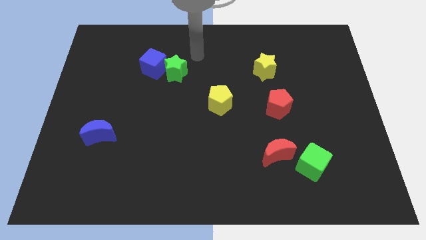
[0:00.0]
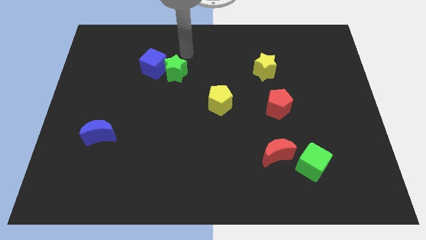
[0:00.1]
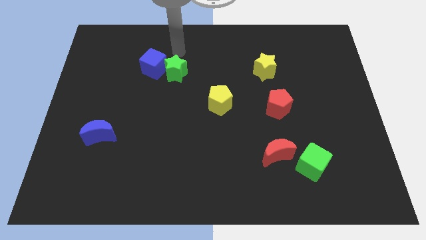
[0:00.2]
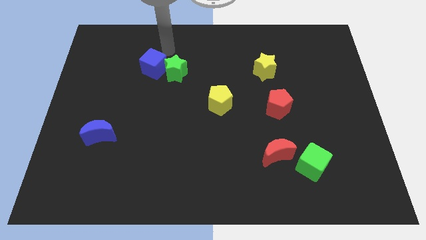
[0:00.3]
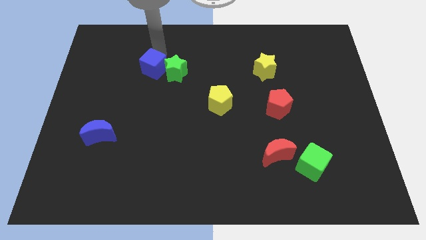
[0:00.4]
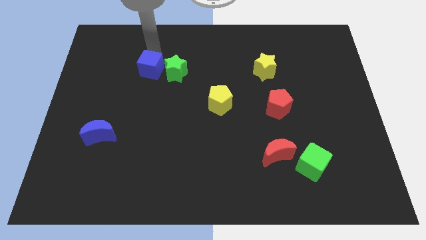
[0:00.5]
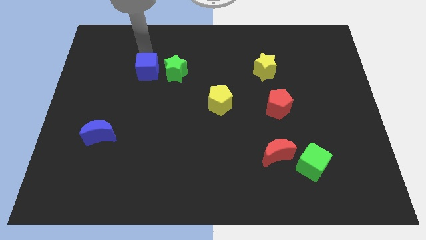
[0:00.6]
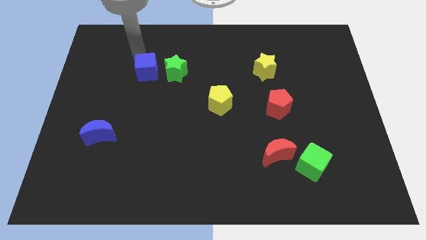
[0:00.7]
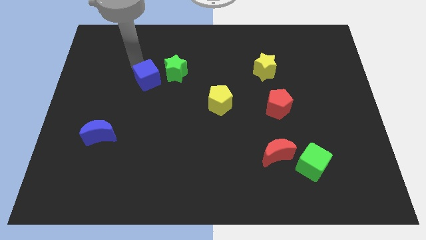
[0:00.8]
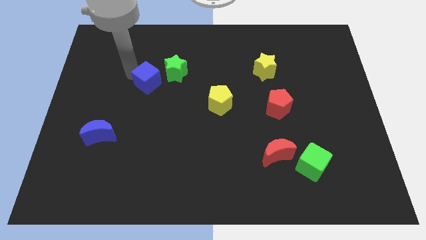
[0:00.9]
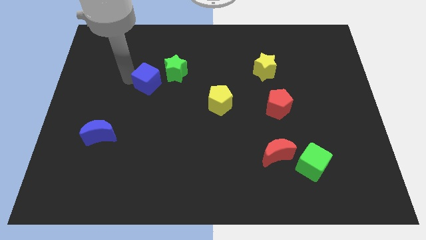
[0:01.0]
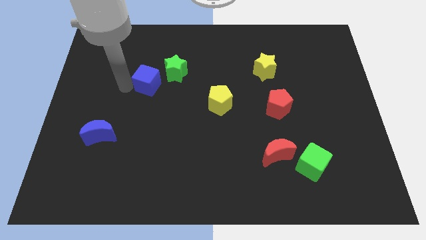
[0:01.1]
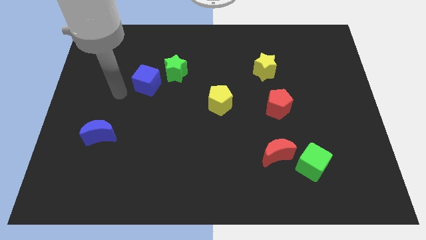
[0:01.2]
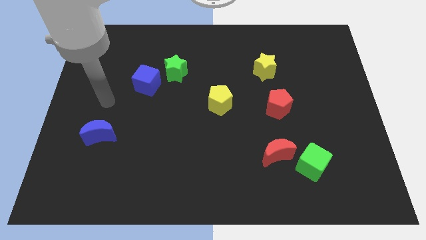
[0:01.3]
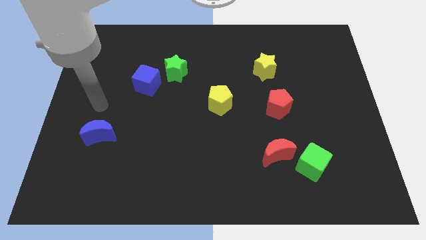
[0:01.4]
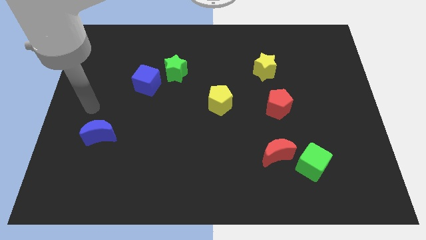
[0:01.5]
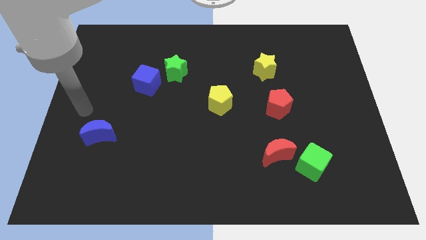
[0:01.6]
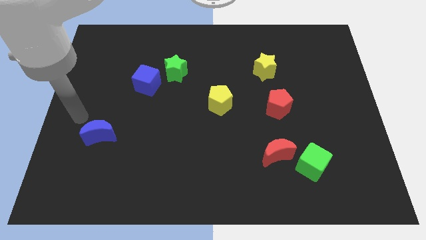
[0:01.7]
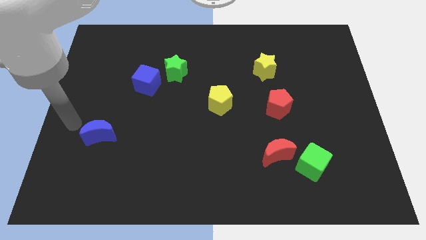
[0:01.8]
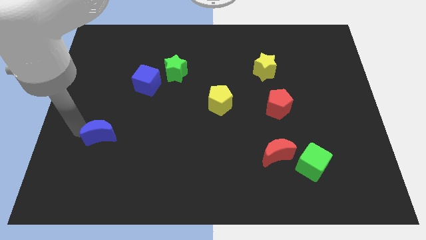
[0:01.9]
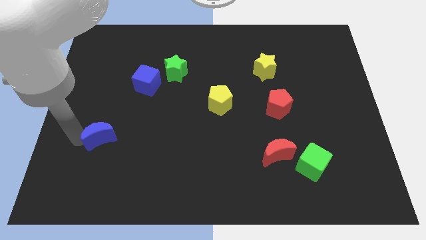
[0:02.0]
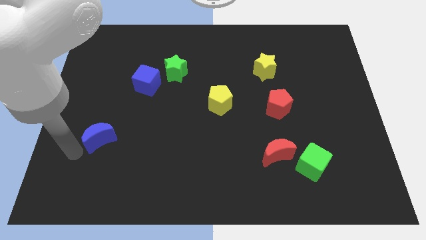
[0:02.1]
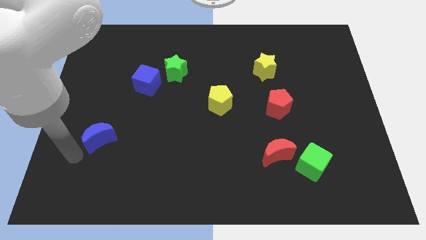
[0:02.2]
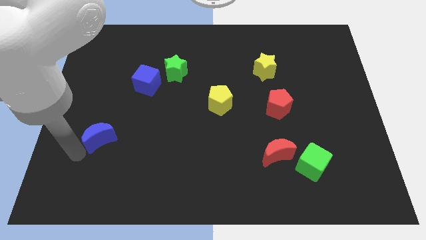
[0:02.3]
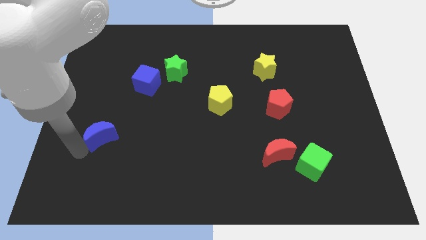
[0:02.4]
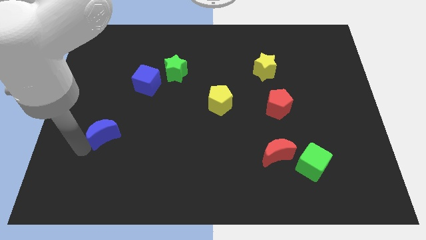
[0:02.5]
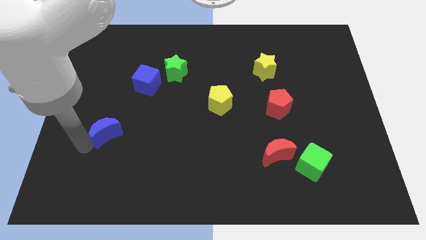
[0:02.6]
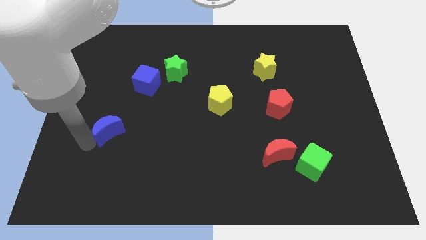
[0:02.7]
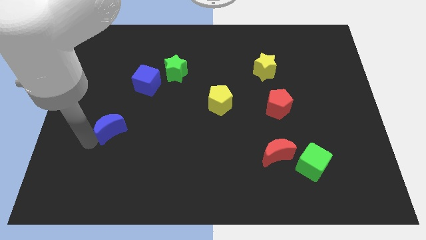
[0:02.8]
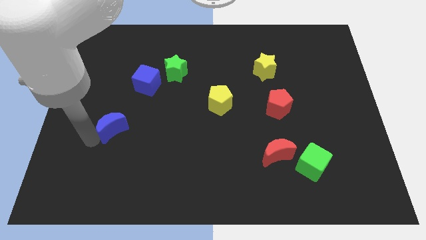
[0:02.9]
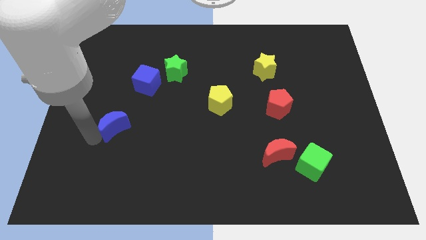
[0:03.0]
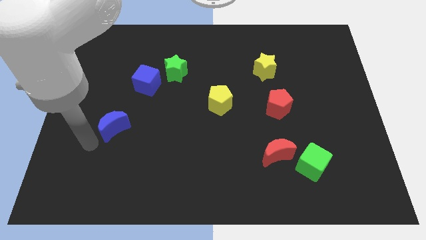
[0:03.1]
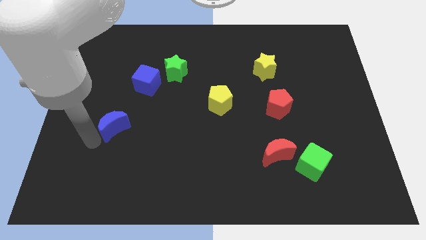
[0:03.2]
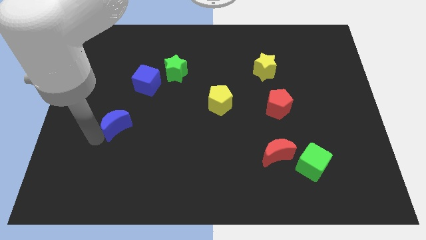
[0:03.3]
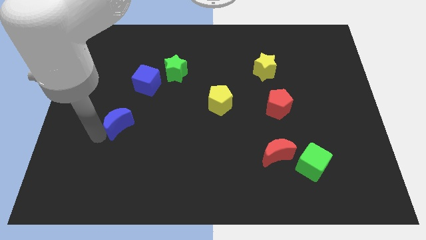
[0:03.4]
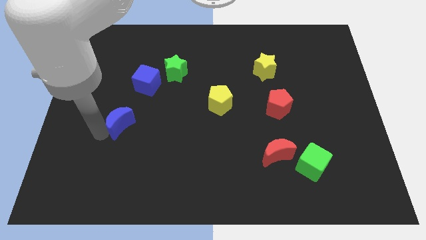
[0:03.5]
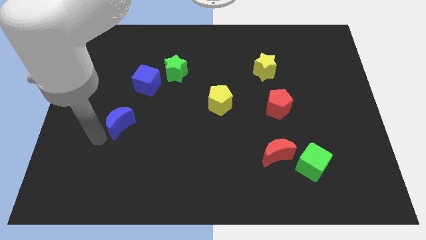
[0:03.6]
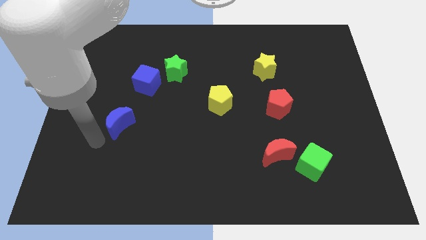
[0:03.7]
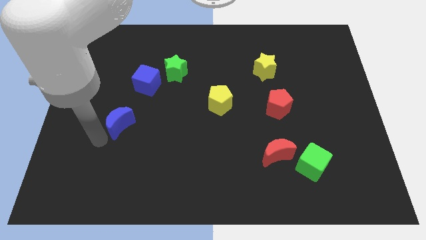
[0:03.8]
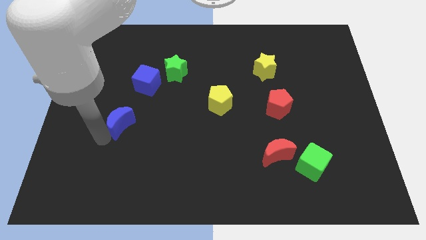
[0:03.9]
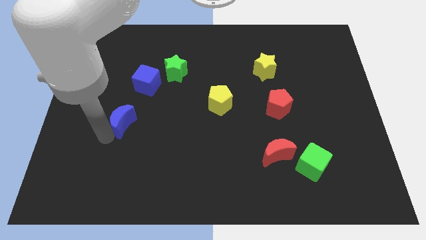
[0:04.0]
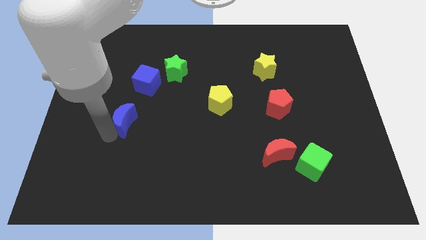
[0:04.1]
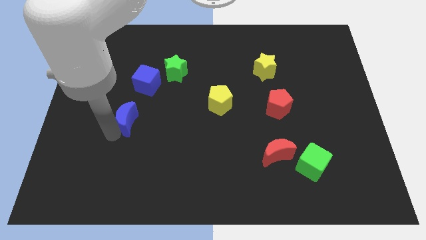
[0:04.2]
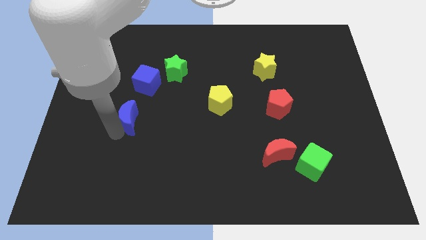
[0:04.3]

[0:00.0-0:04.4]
push the blue moon slightly up and right

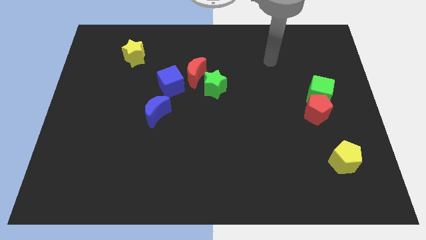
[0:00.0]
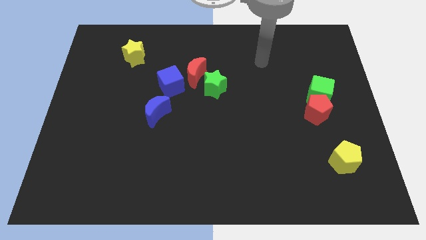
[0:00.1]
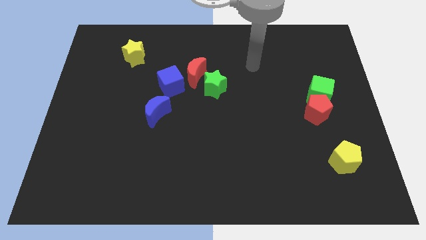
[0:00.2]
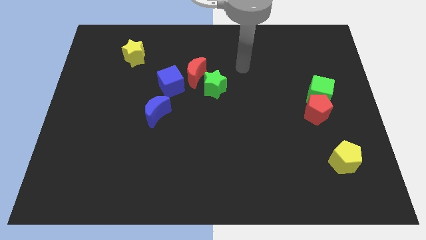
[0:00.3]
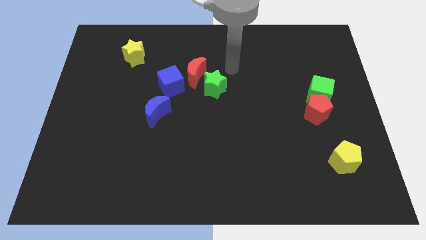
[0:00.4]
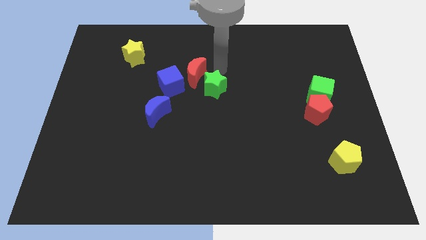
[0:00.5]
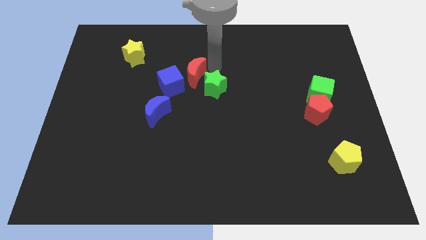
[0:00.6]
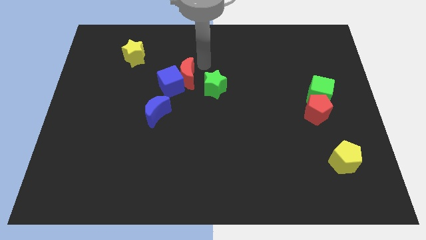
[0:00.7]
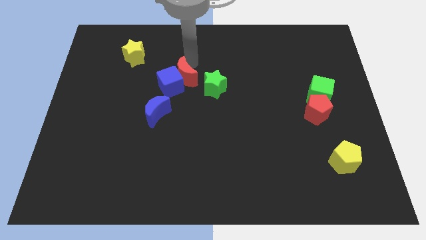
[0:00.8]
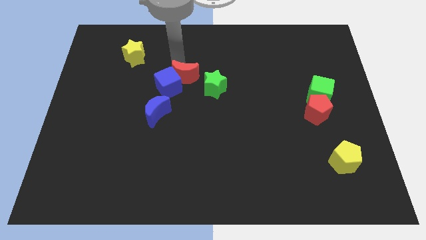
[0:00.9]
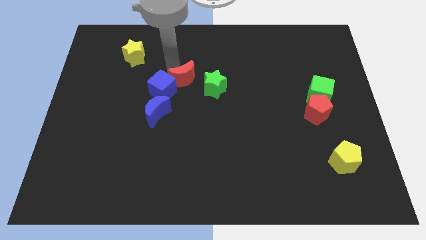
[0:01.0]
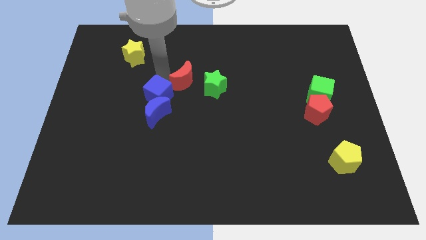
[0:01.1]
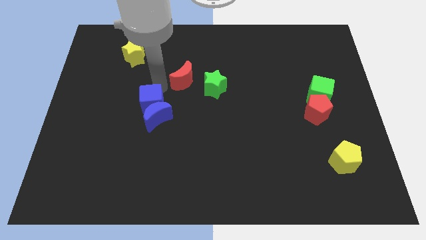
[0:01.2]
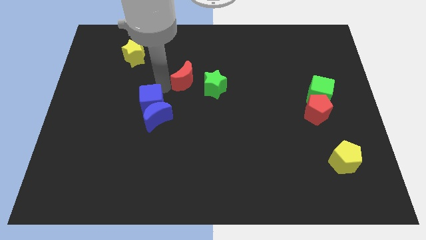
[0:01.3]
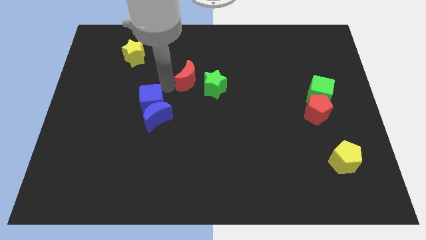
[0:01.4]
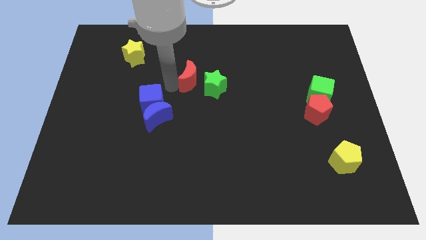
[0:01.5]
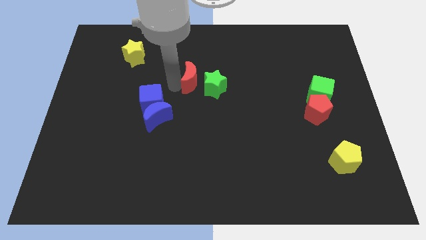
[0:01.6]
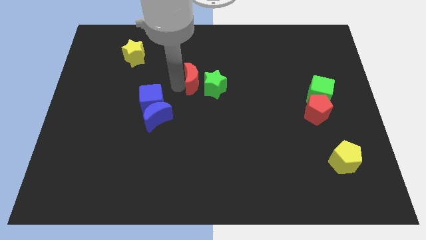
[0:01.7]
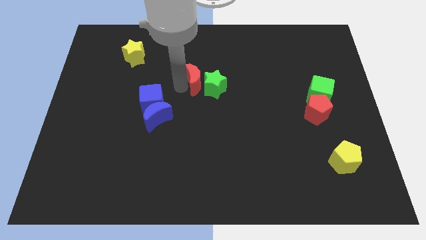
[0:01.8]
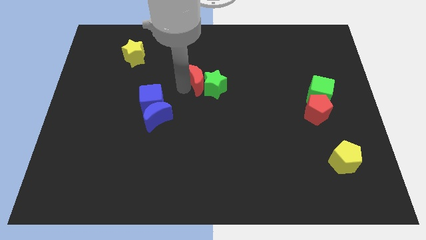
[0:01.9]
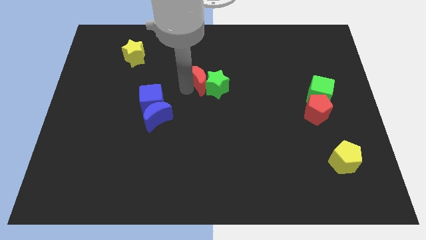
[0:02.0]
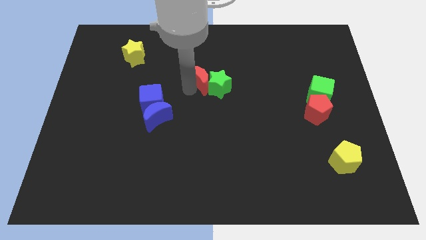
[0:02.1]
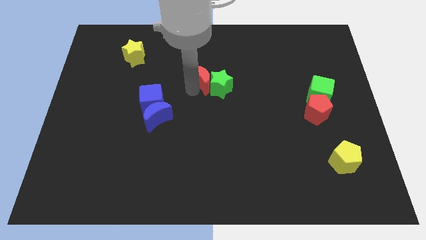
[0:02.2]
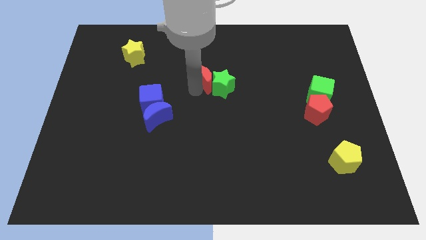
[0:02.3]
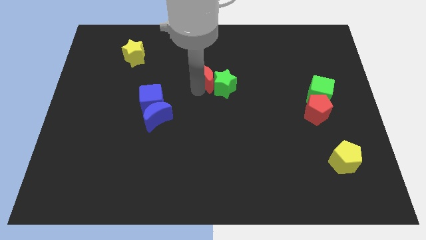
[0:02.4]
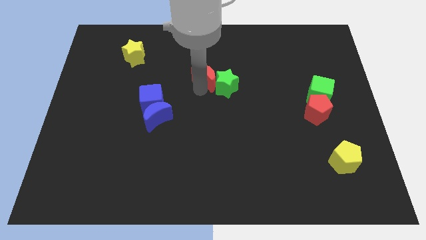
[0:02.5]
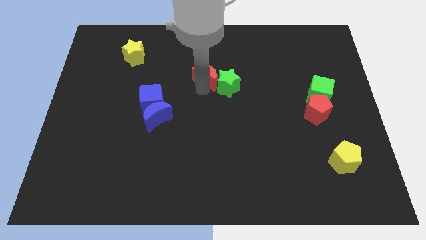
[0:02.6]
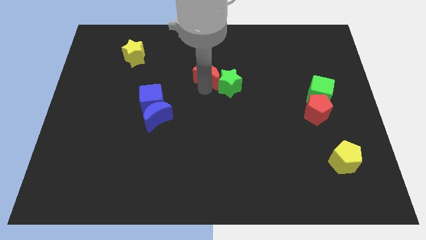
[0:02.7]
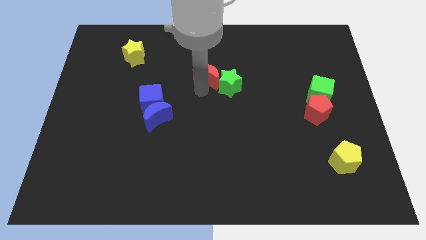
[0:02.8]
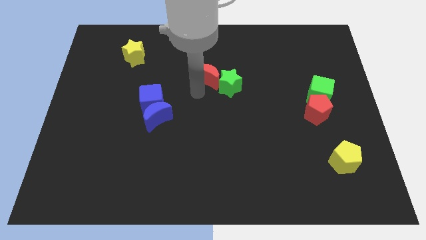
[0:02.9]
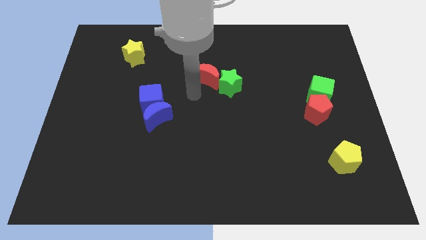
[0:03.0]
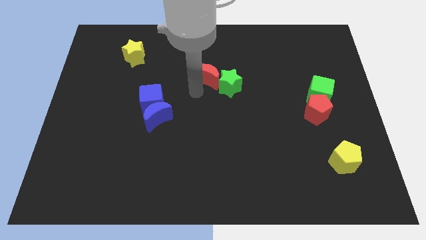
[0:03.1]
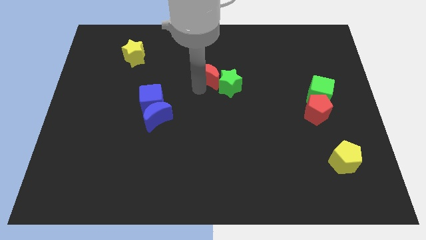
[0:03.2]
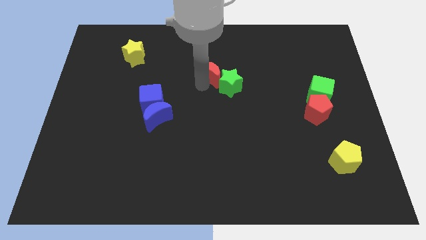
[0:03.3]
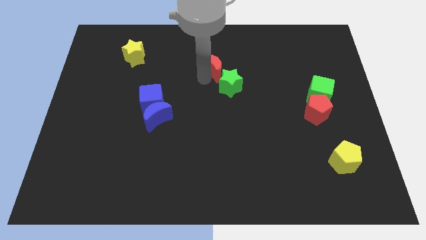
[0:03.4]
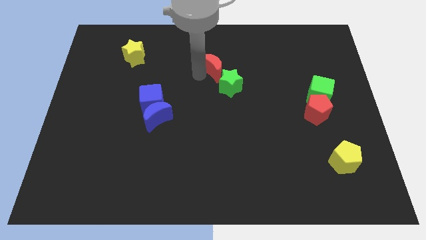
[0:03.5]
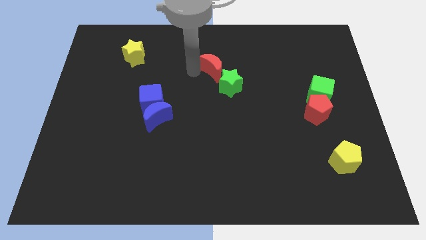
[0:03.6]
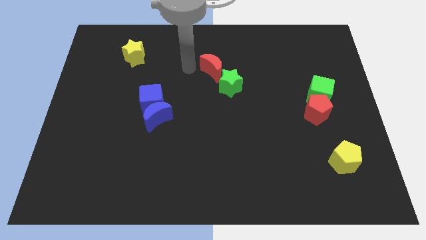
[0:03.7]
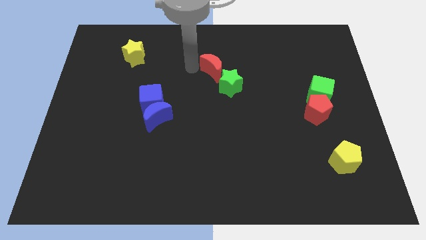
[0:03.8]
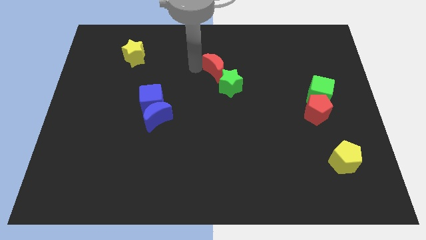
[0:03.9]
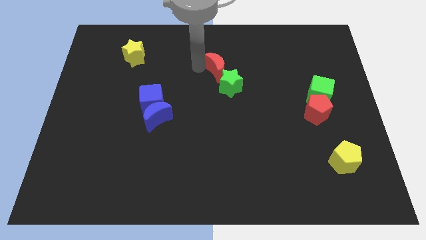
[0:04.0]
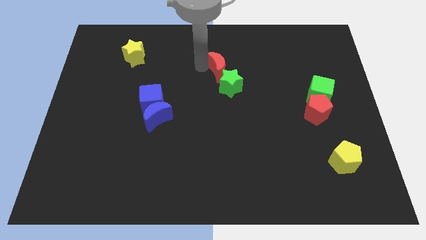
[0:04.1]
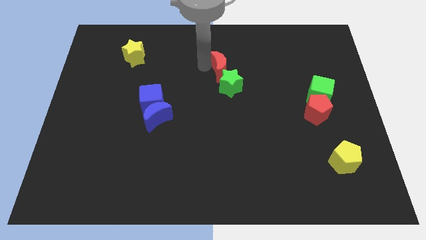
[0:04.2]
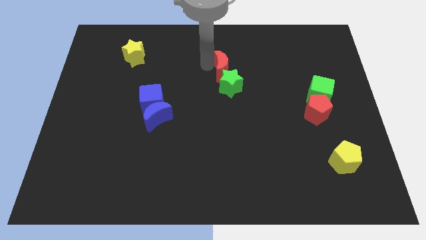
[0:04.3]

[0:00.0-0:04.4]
slightly slide the red moon right
